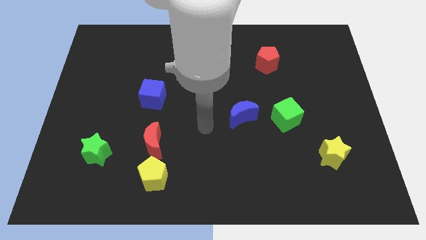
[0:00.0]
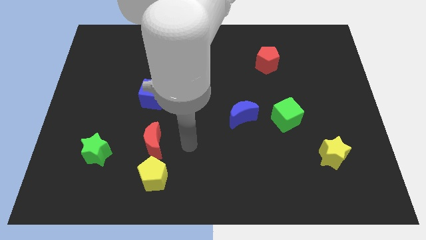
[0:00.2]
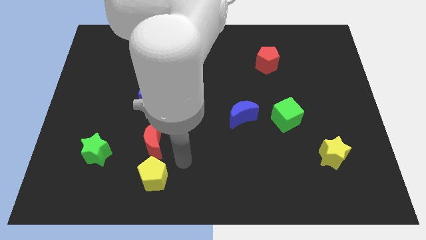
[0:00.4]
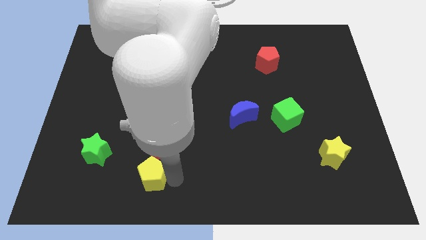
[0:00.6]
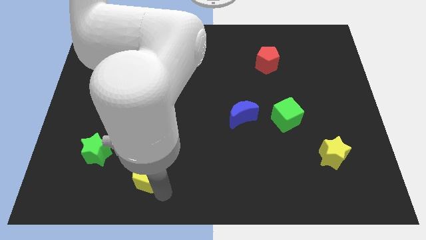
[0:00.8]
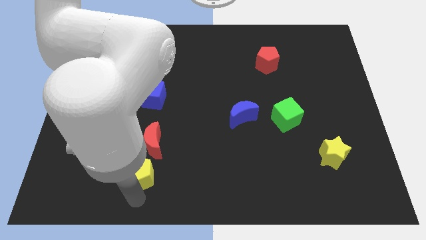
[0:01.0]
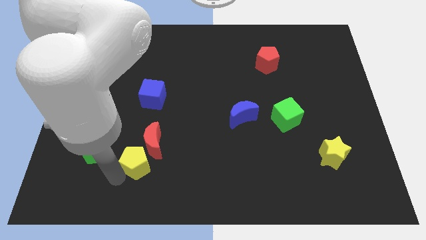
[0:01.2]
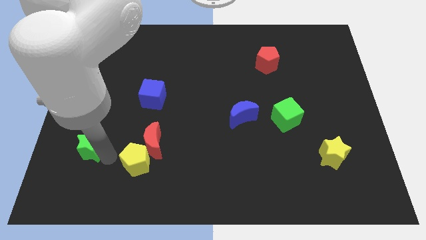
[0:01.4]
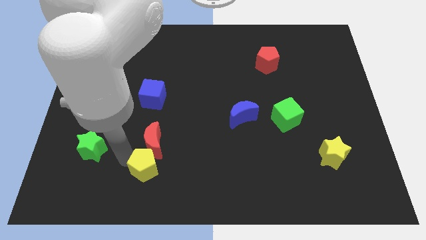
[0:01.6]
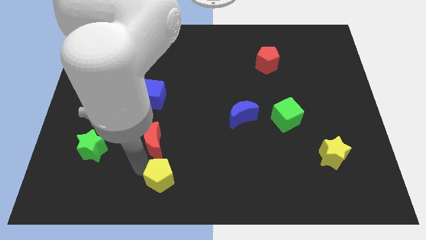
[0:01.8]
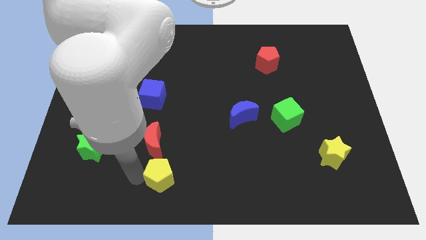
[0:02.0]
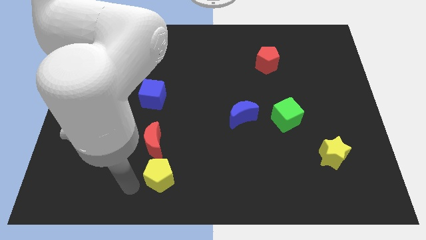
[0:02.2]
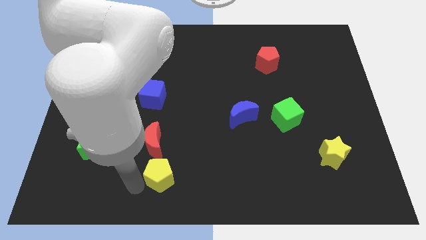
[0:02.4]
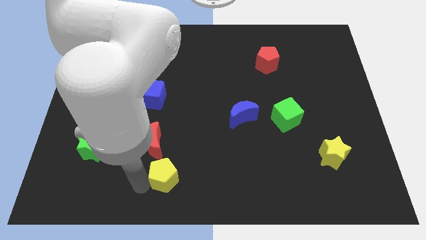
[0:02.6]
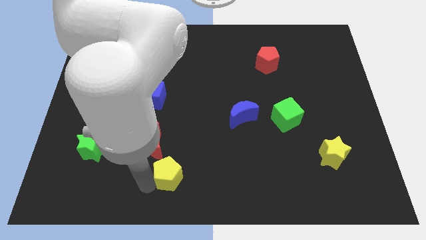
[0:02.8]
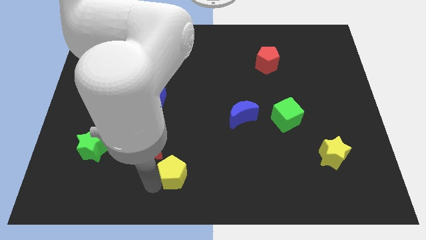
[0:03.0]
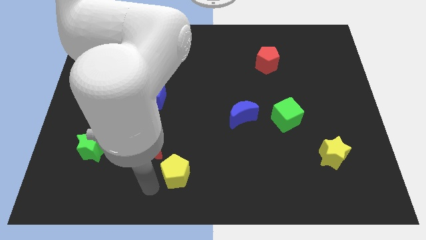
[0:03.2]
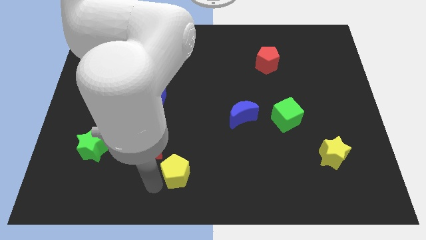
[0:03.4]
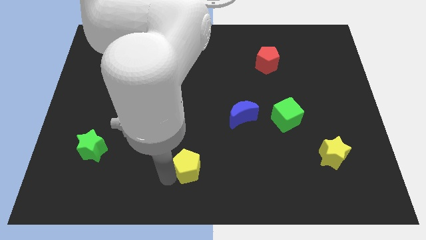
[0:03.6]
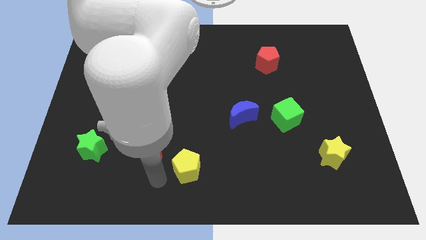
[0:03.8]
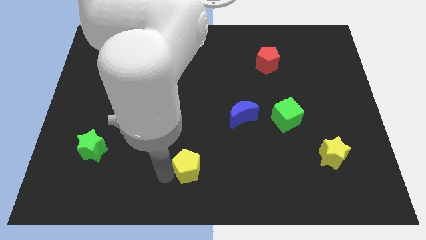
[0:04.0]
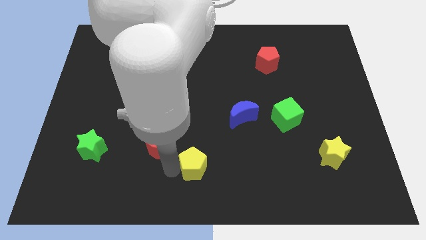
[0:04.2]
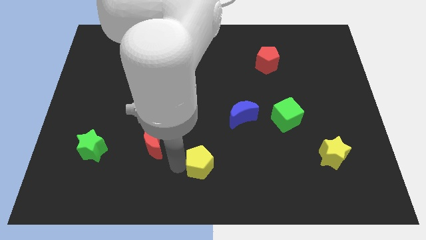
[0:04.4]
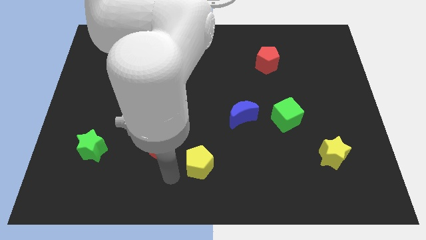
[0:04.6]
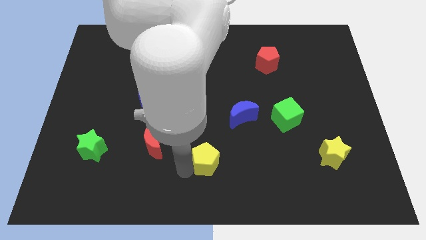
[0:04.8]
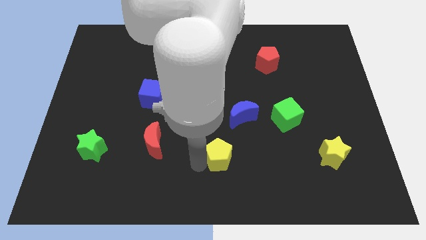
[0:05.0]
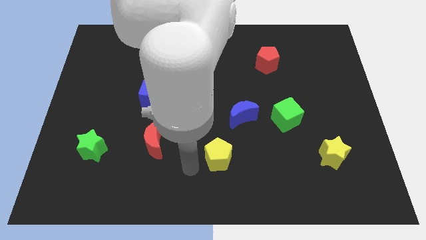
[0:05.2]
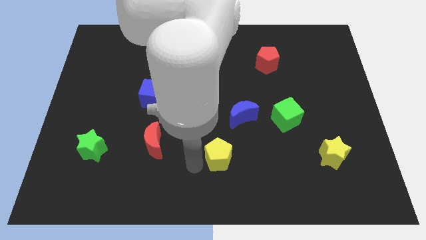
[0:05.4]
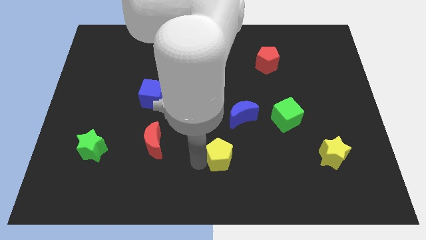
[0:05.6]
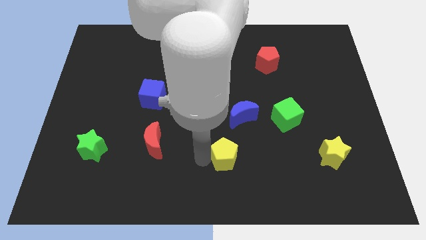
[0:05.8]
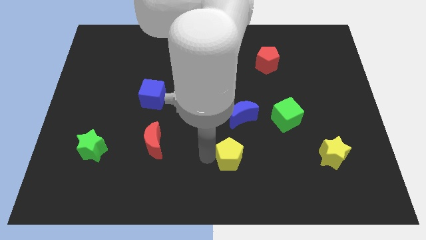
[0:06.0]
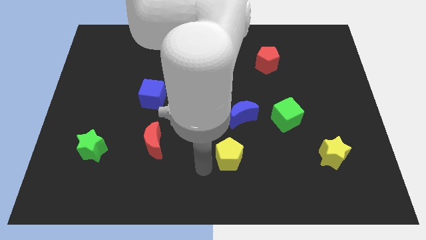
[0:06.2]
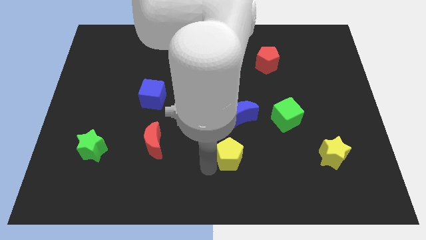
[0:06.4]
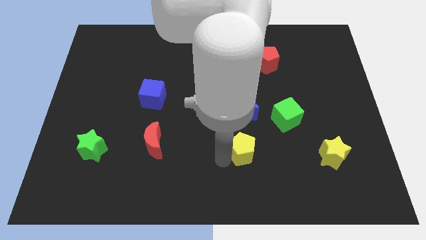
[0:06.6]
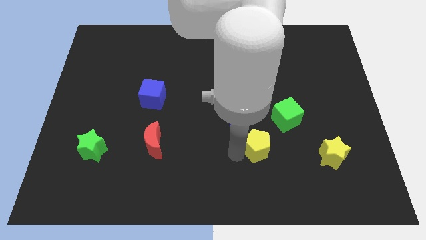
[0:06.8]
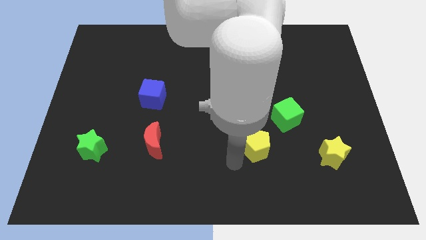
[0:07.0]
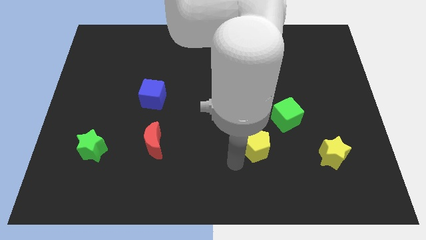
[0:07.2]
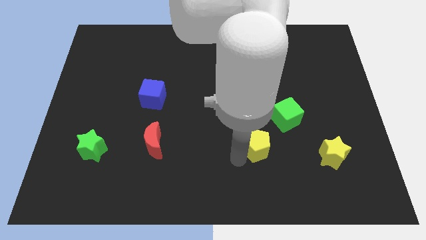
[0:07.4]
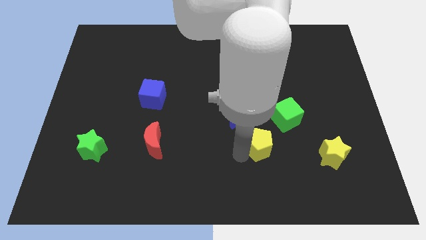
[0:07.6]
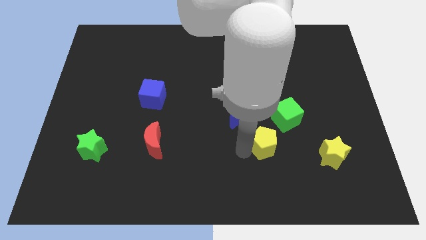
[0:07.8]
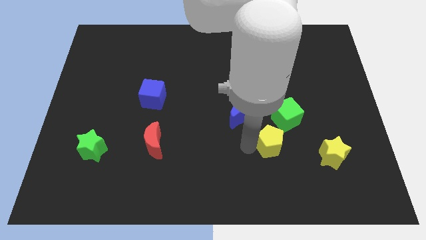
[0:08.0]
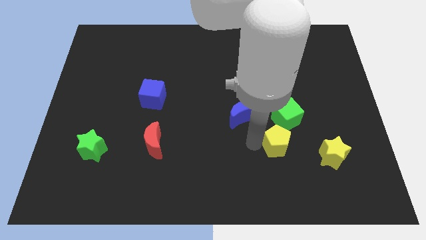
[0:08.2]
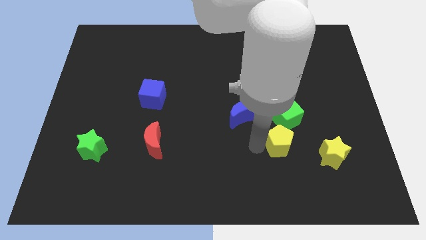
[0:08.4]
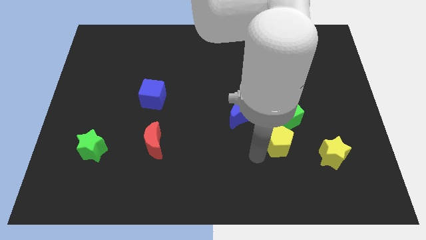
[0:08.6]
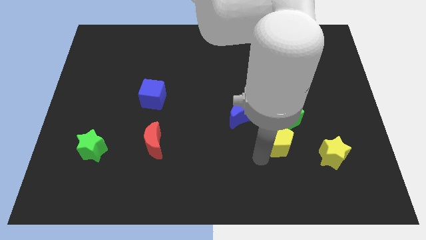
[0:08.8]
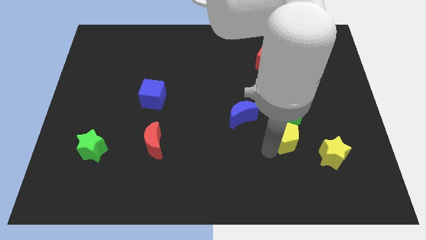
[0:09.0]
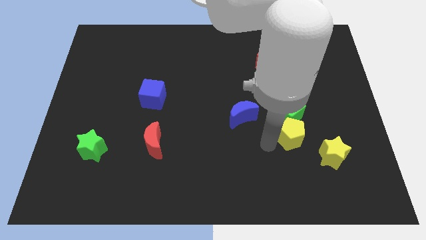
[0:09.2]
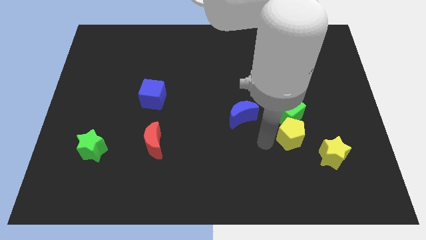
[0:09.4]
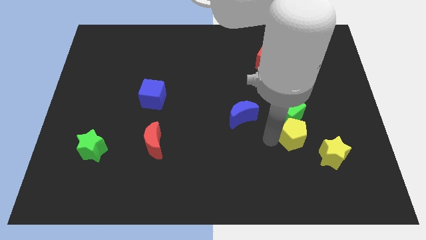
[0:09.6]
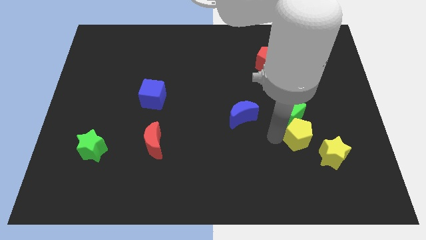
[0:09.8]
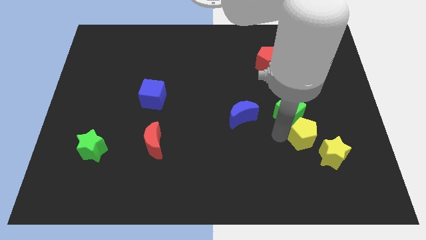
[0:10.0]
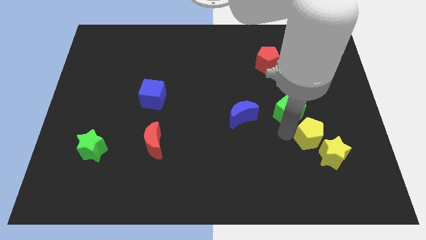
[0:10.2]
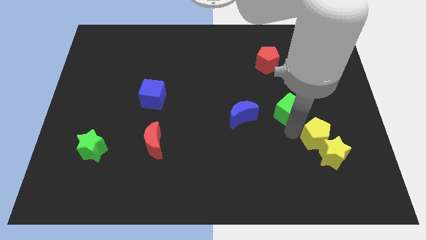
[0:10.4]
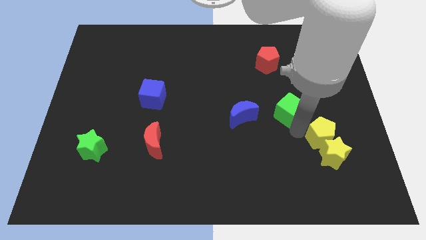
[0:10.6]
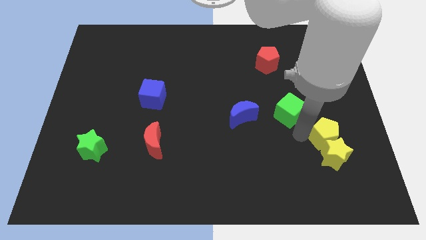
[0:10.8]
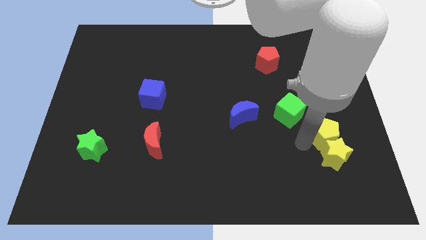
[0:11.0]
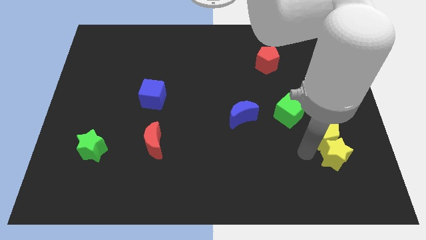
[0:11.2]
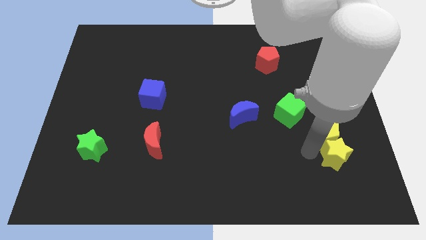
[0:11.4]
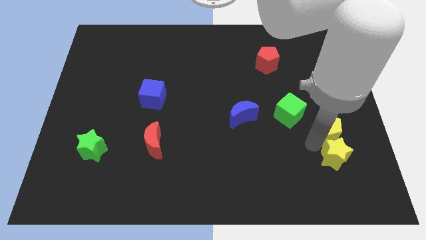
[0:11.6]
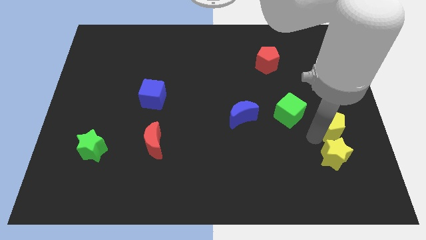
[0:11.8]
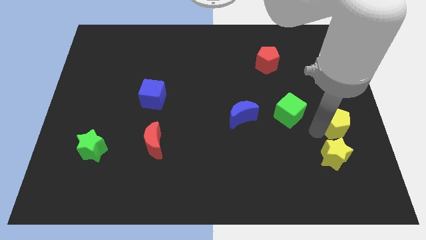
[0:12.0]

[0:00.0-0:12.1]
slide the yellow pentagon to the center right
